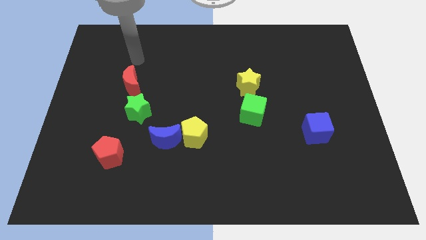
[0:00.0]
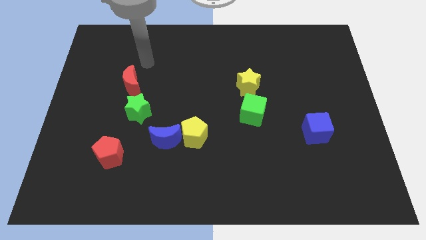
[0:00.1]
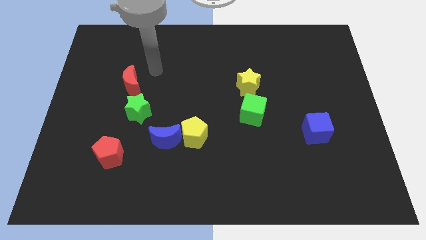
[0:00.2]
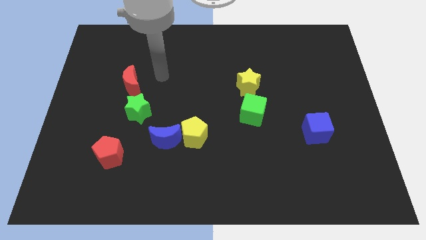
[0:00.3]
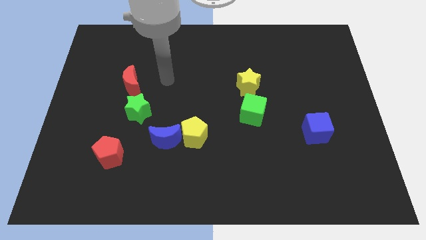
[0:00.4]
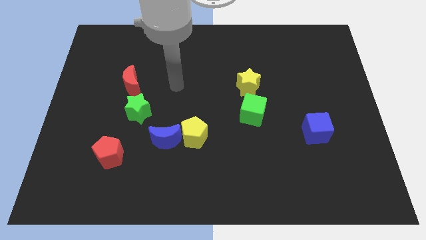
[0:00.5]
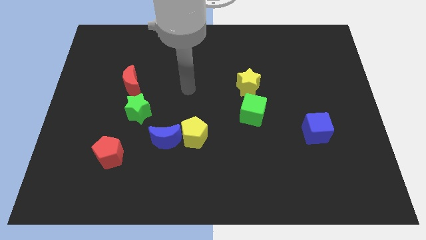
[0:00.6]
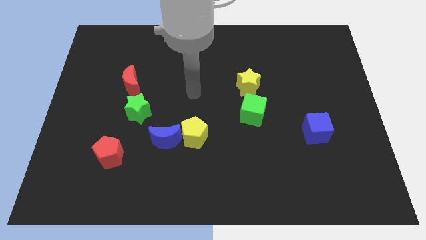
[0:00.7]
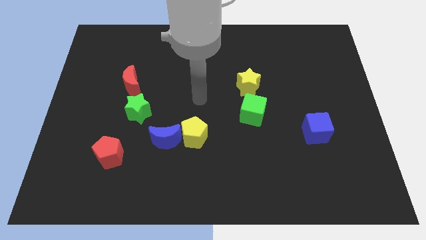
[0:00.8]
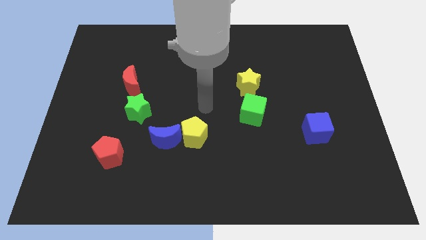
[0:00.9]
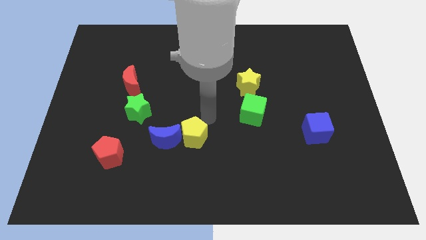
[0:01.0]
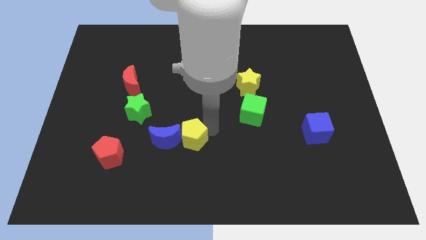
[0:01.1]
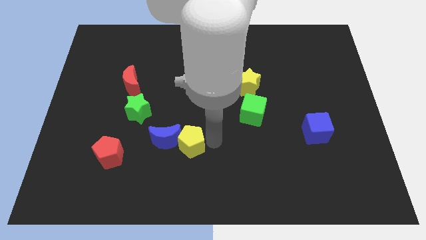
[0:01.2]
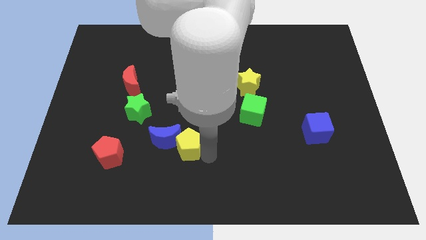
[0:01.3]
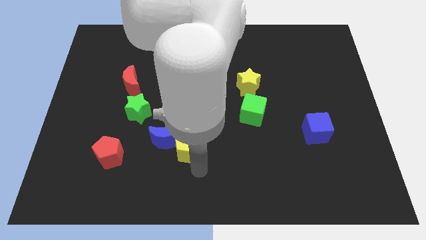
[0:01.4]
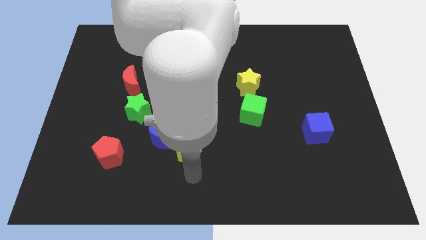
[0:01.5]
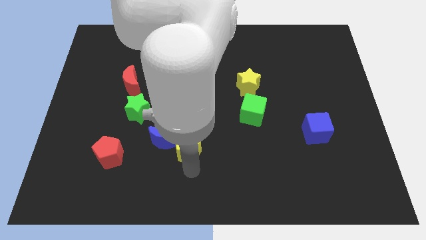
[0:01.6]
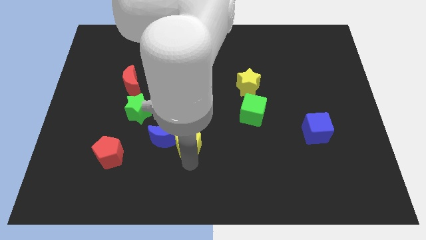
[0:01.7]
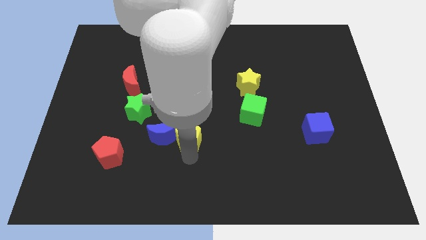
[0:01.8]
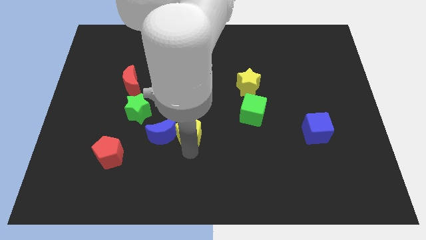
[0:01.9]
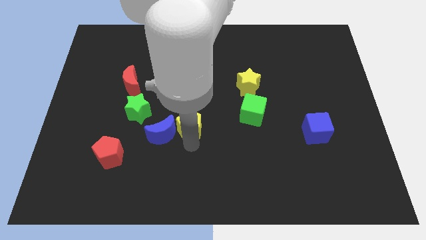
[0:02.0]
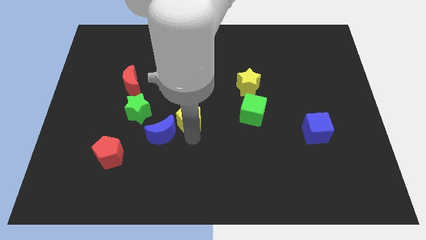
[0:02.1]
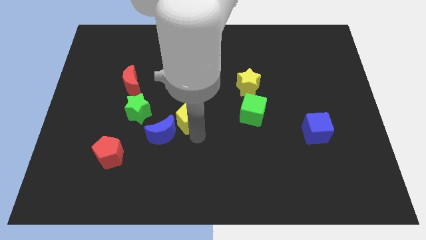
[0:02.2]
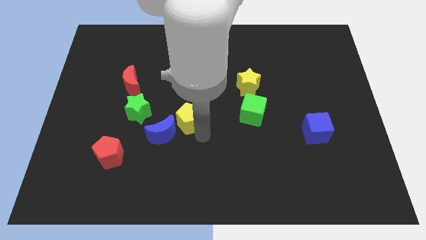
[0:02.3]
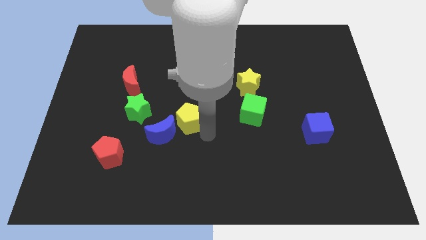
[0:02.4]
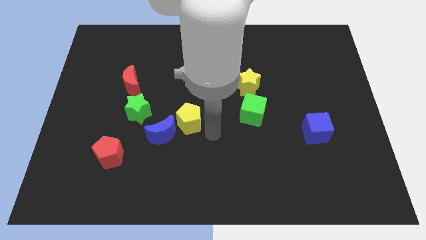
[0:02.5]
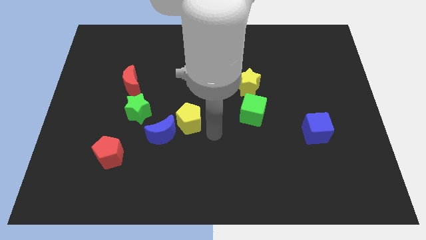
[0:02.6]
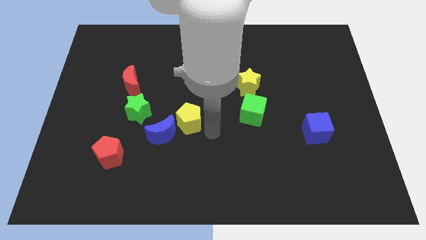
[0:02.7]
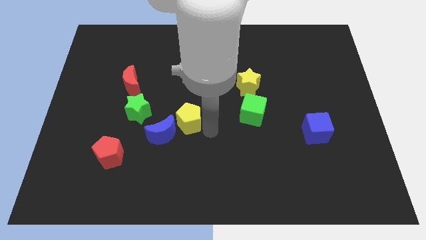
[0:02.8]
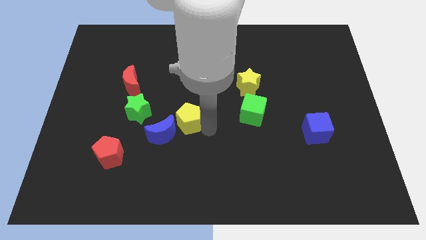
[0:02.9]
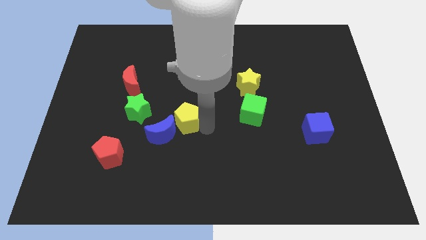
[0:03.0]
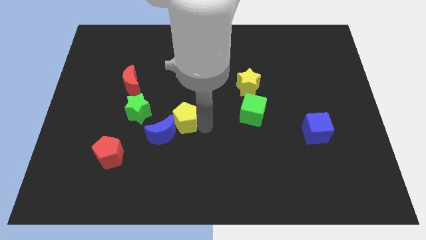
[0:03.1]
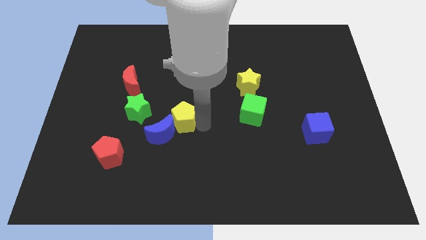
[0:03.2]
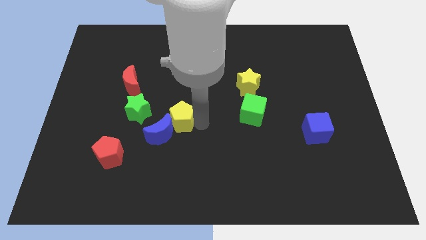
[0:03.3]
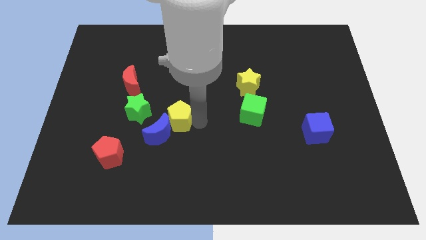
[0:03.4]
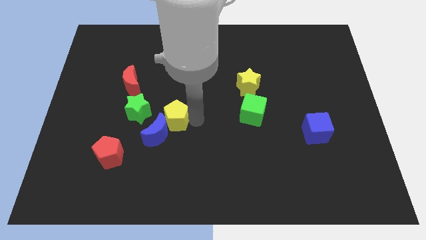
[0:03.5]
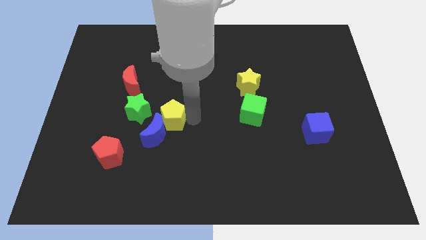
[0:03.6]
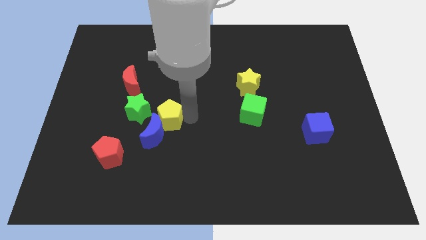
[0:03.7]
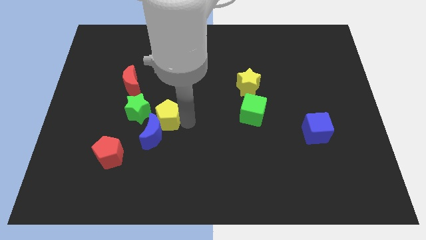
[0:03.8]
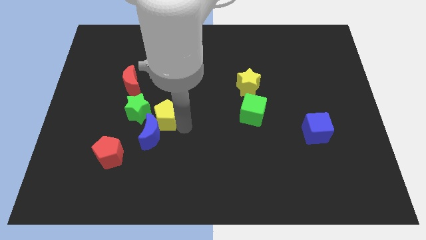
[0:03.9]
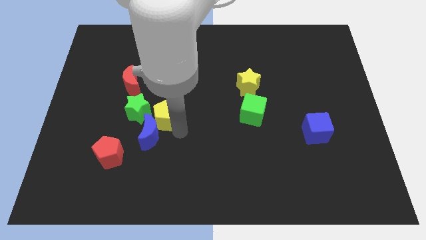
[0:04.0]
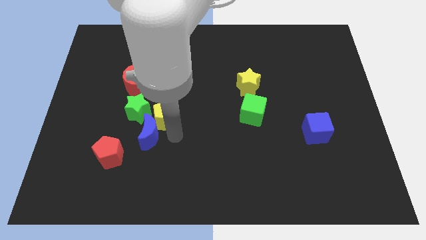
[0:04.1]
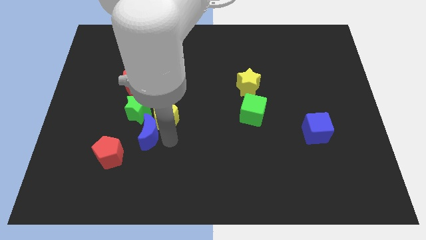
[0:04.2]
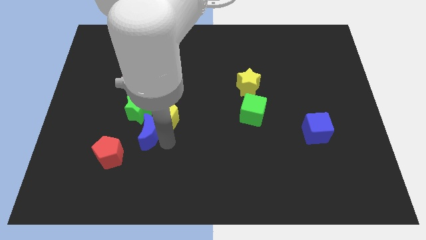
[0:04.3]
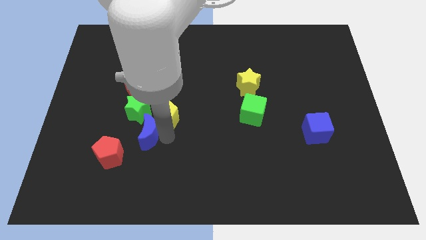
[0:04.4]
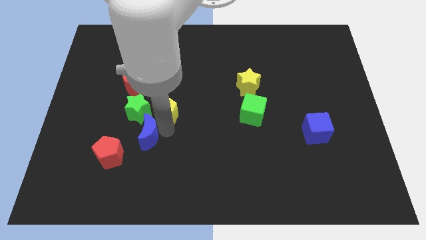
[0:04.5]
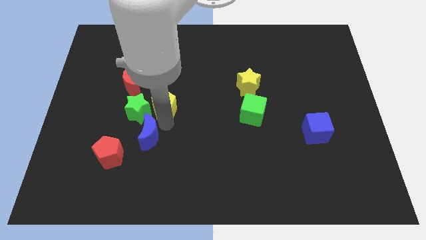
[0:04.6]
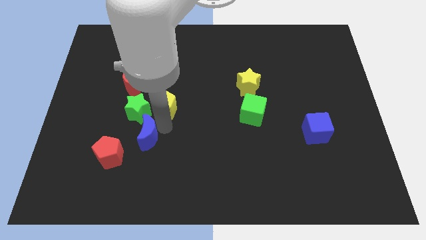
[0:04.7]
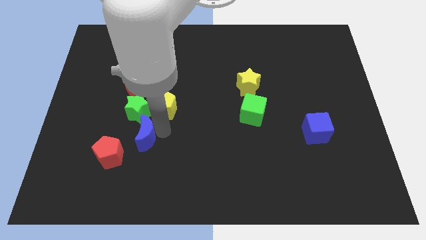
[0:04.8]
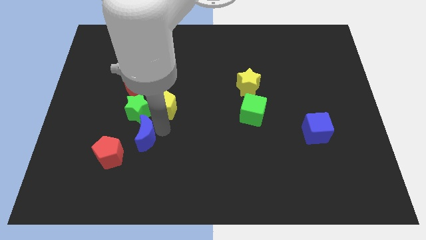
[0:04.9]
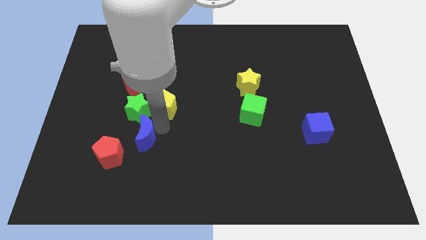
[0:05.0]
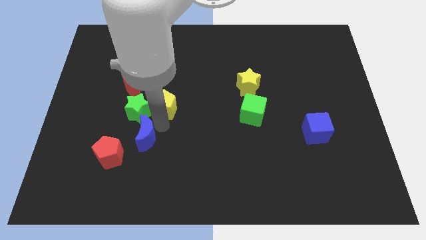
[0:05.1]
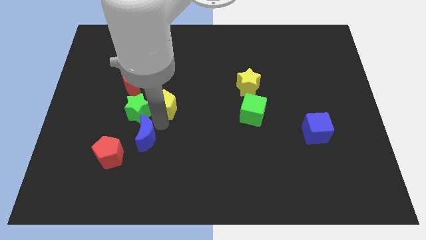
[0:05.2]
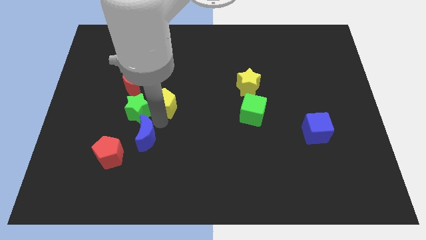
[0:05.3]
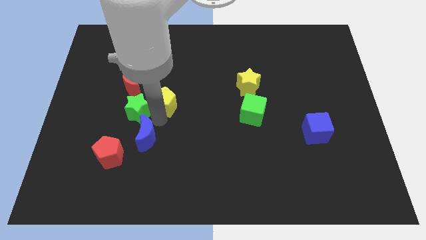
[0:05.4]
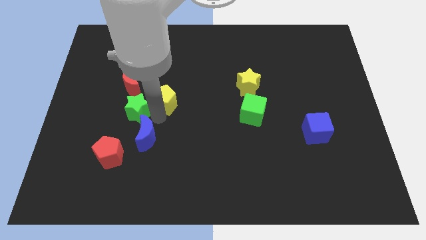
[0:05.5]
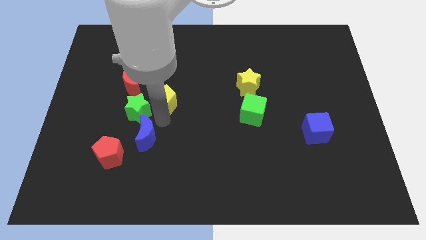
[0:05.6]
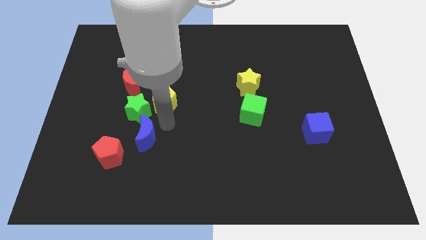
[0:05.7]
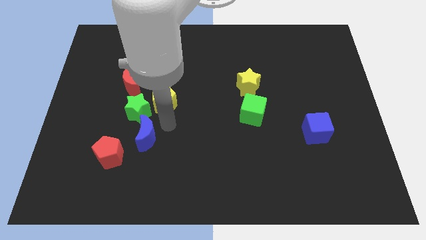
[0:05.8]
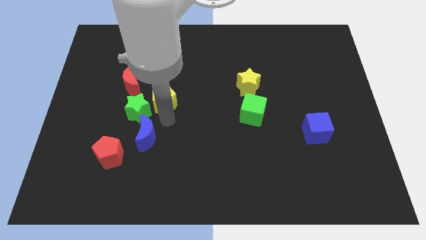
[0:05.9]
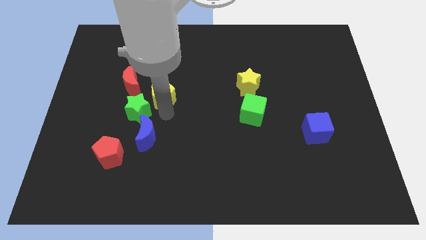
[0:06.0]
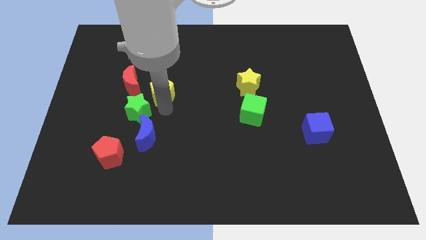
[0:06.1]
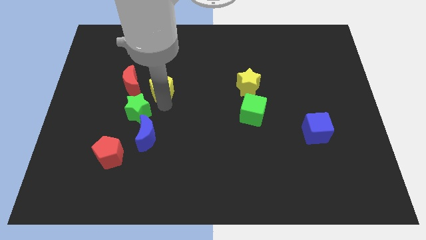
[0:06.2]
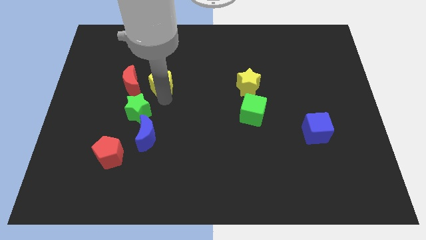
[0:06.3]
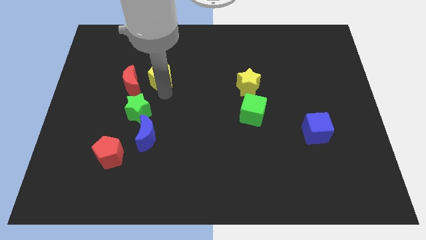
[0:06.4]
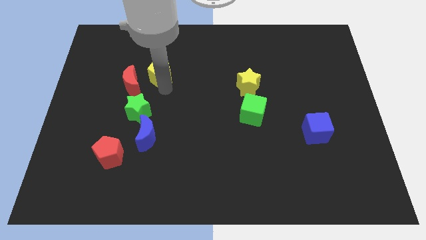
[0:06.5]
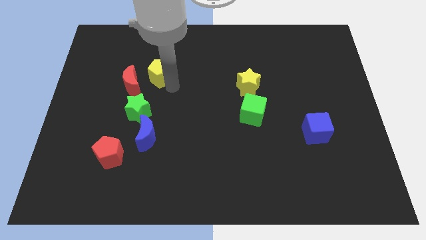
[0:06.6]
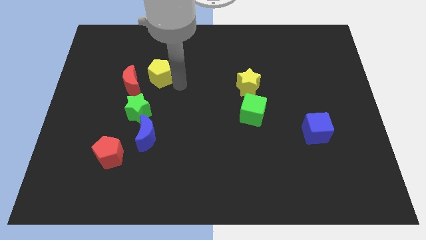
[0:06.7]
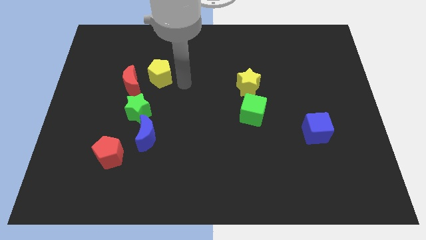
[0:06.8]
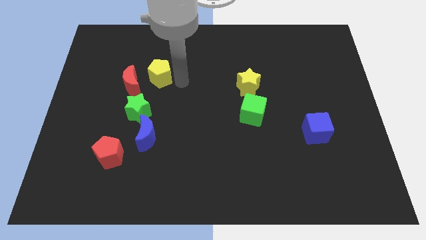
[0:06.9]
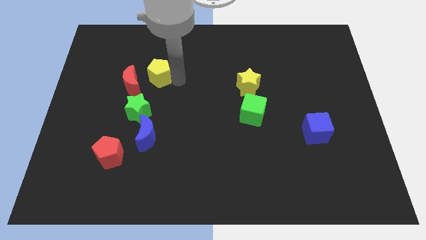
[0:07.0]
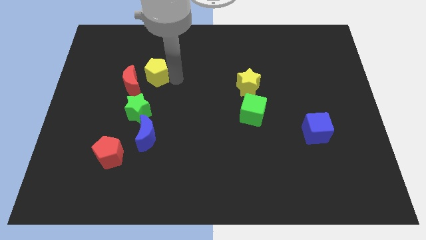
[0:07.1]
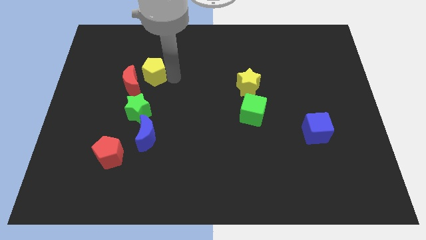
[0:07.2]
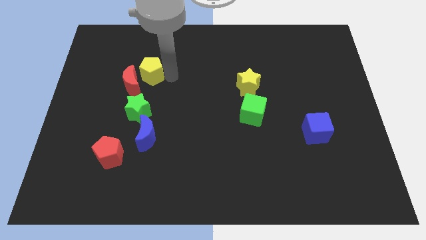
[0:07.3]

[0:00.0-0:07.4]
move the yellow pentagon diagonally upwards and to the left

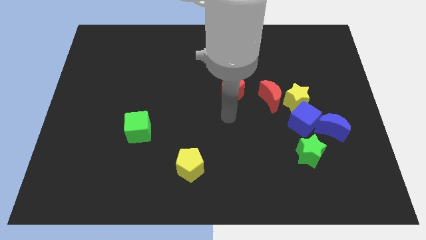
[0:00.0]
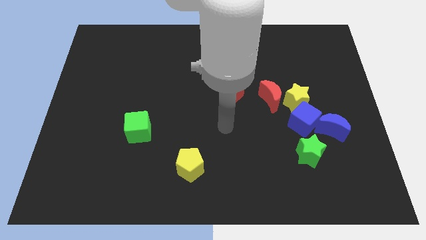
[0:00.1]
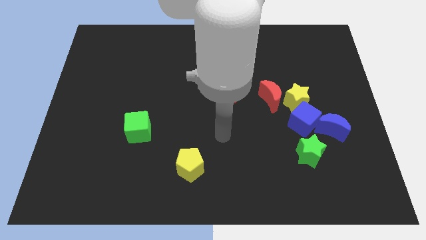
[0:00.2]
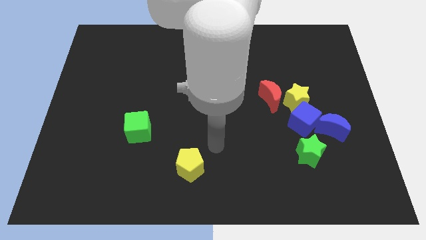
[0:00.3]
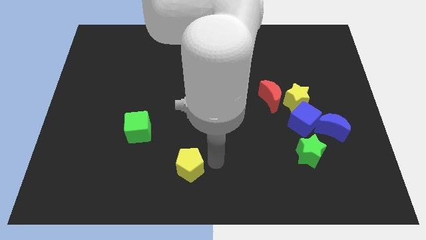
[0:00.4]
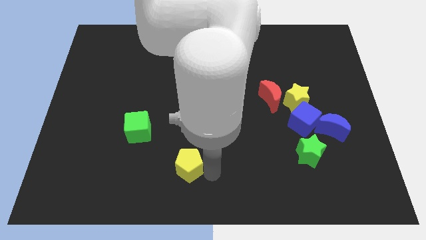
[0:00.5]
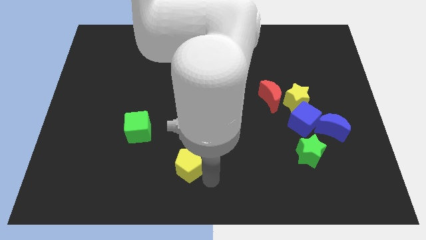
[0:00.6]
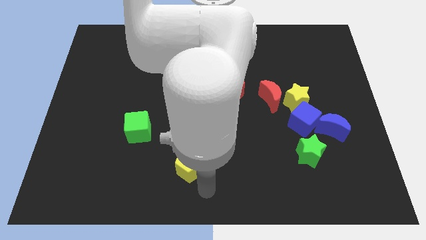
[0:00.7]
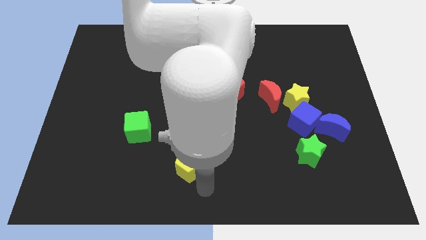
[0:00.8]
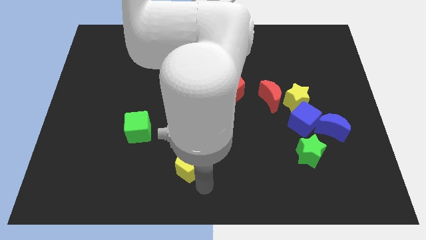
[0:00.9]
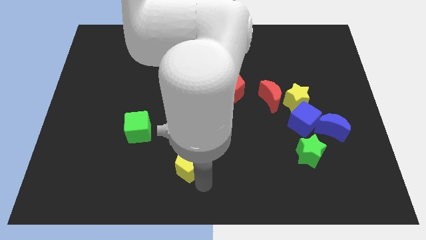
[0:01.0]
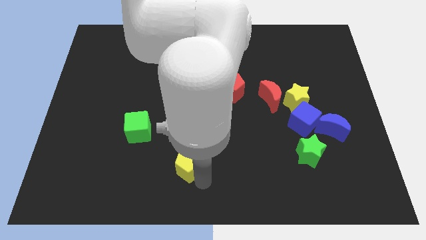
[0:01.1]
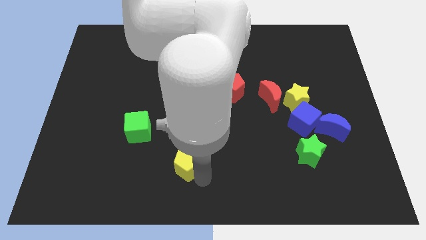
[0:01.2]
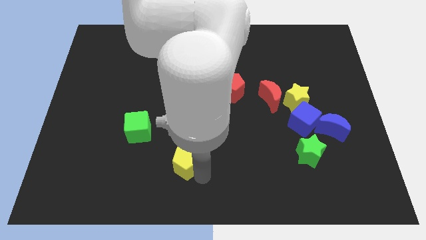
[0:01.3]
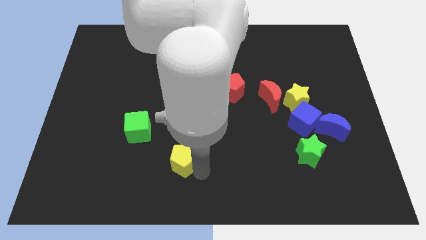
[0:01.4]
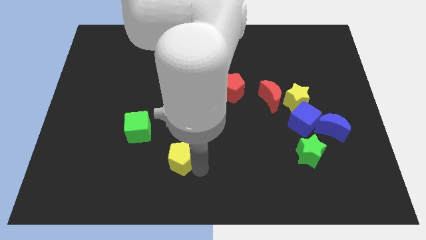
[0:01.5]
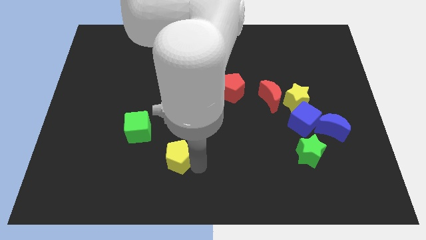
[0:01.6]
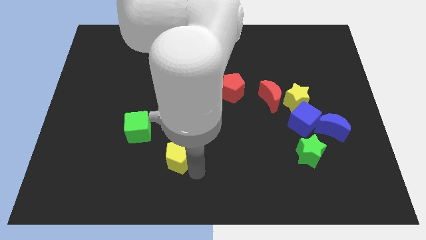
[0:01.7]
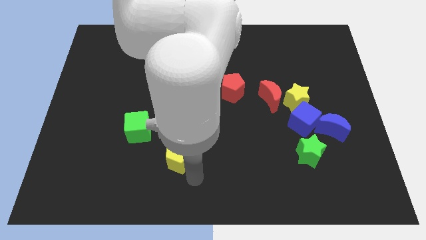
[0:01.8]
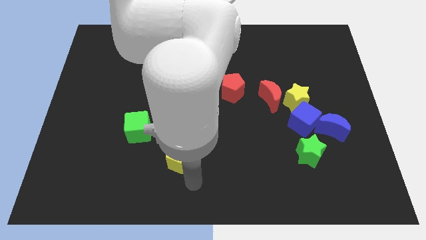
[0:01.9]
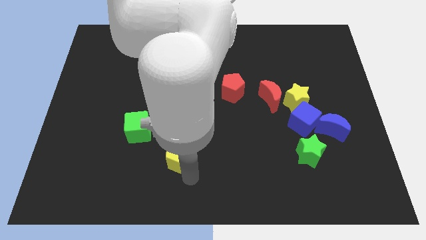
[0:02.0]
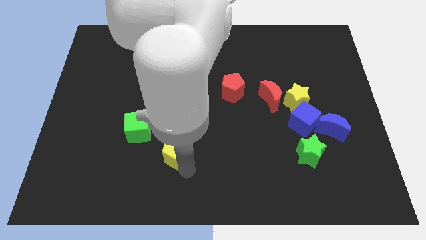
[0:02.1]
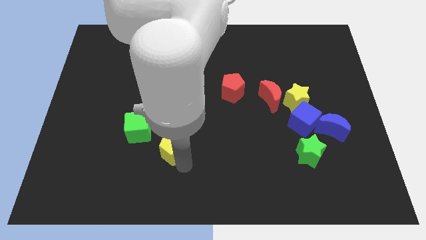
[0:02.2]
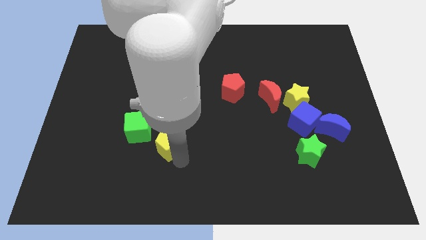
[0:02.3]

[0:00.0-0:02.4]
slide the yellow pentagon diagonally up and to the left somewhat
